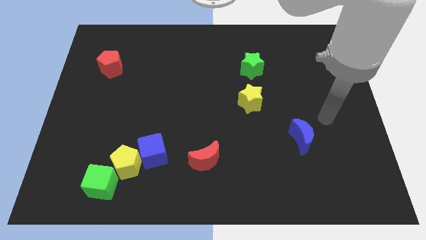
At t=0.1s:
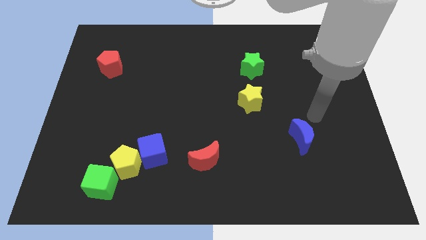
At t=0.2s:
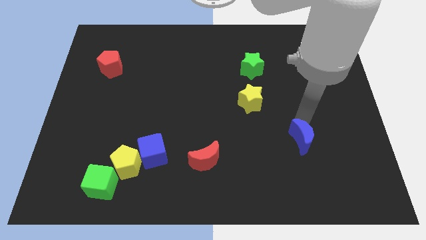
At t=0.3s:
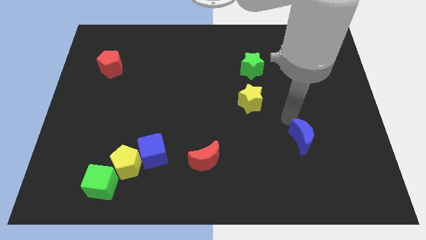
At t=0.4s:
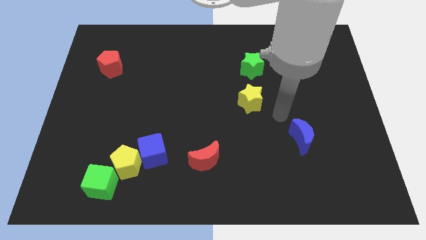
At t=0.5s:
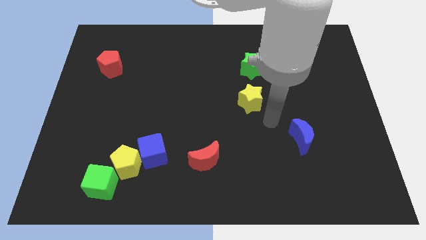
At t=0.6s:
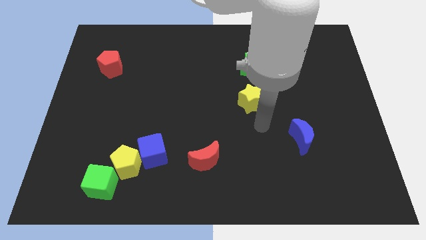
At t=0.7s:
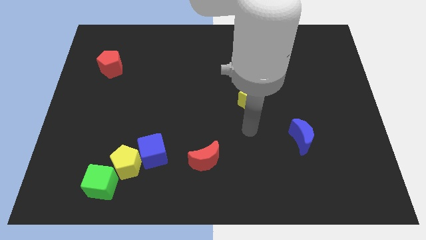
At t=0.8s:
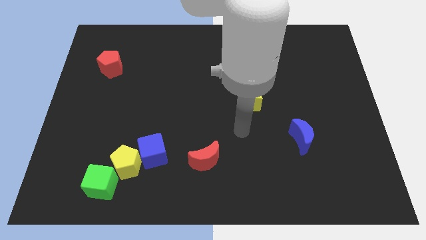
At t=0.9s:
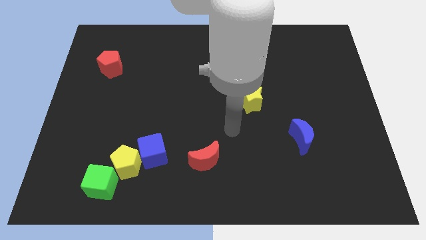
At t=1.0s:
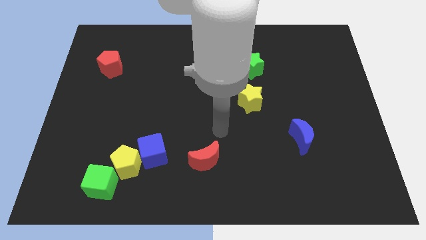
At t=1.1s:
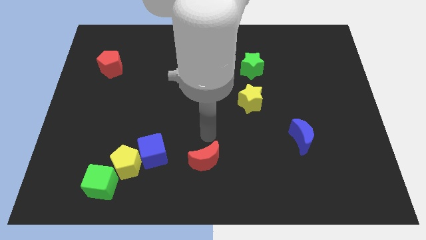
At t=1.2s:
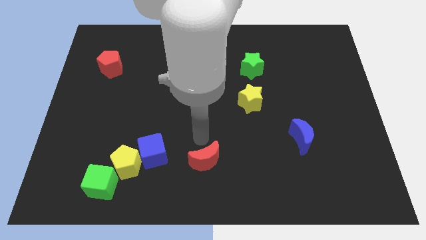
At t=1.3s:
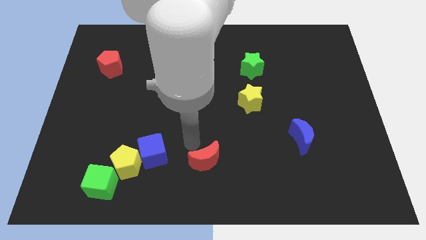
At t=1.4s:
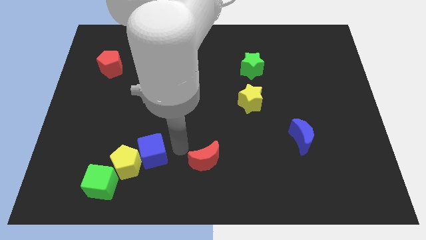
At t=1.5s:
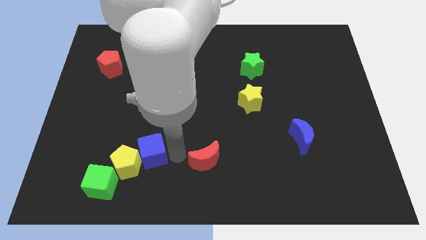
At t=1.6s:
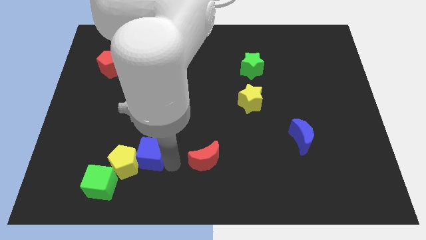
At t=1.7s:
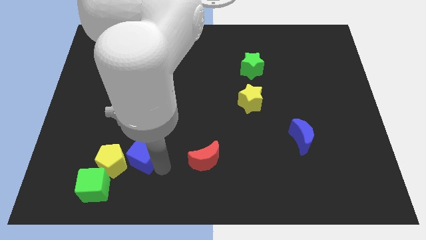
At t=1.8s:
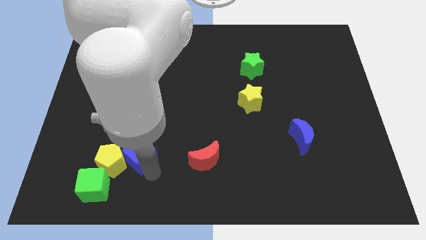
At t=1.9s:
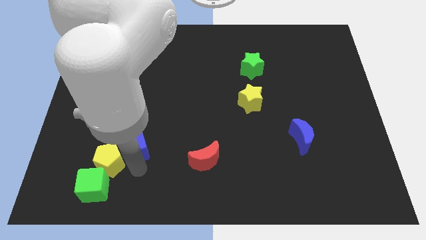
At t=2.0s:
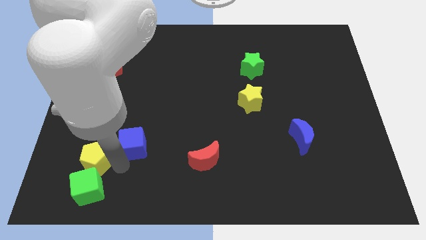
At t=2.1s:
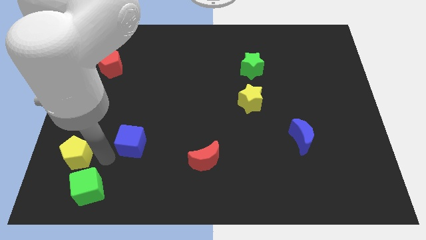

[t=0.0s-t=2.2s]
pull the blue cube apart from the yellow pentagon

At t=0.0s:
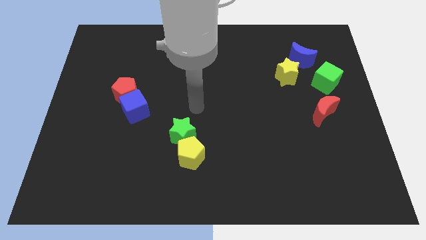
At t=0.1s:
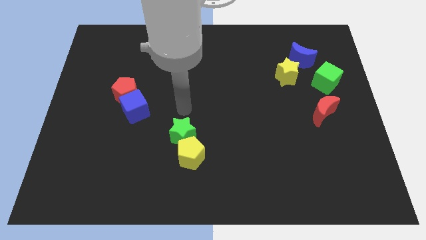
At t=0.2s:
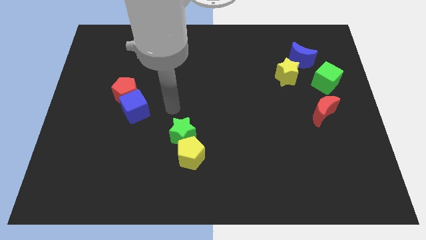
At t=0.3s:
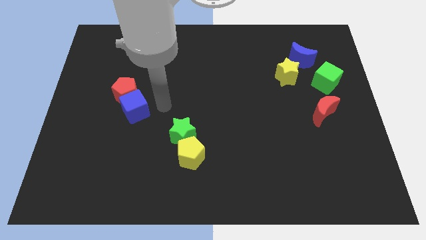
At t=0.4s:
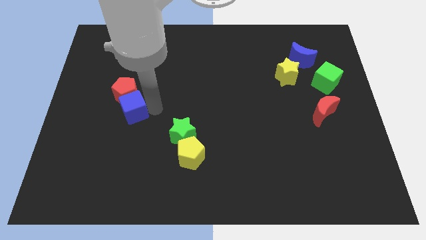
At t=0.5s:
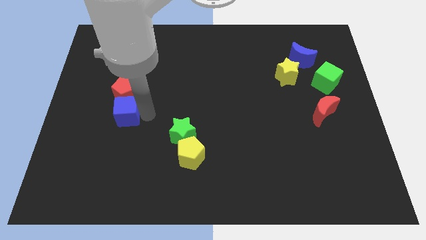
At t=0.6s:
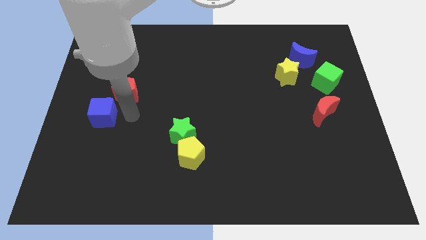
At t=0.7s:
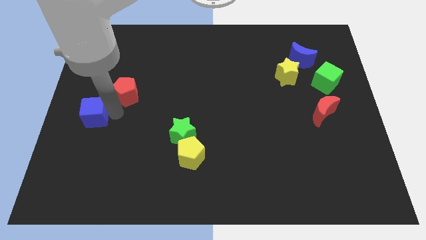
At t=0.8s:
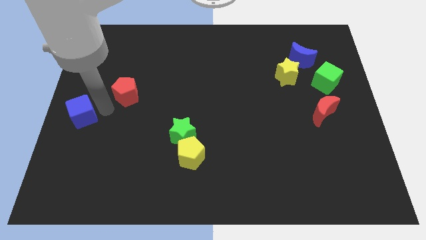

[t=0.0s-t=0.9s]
move the red pentagon away from the blue cube

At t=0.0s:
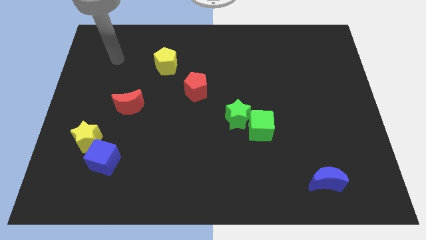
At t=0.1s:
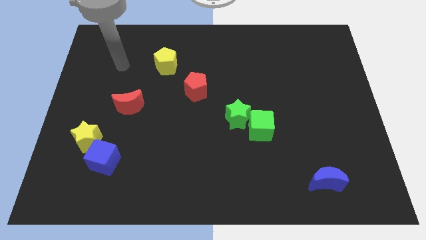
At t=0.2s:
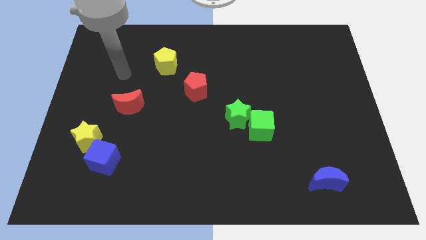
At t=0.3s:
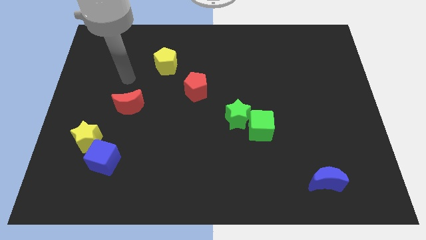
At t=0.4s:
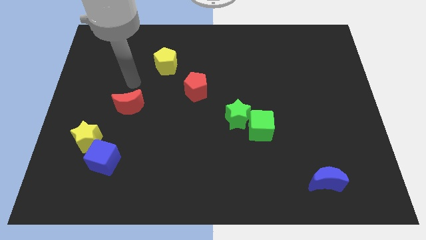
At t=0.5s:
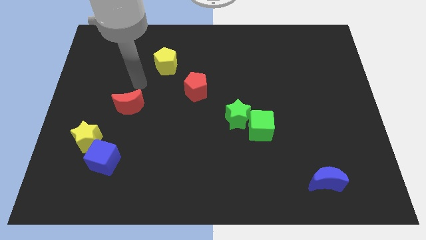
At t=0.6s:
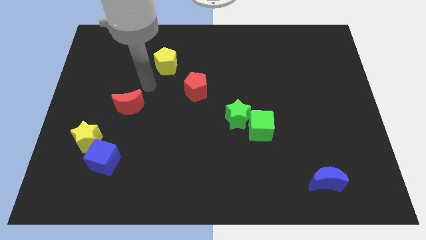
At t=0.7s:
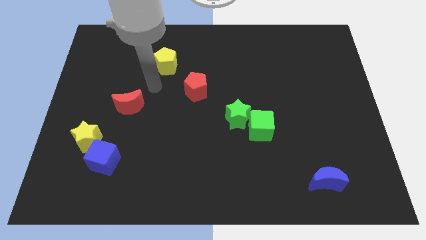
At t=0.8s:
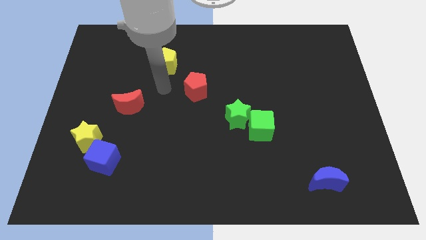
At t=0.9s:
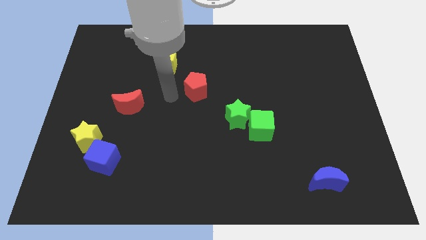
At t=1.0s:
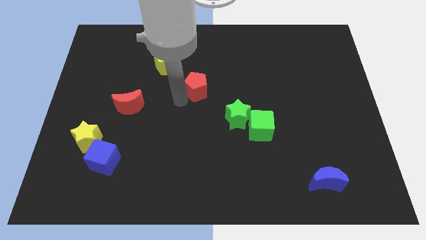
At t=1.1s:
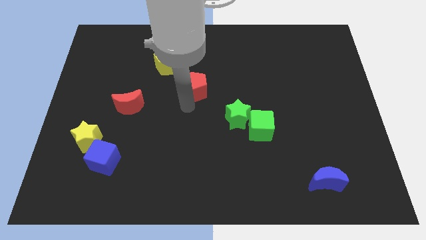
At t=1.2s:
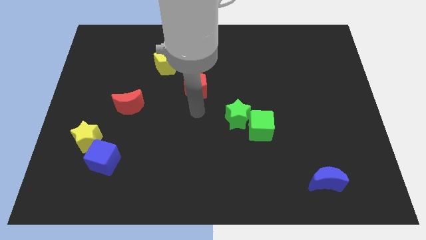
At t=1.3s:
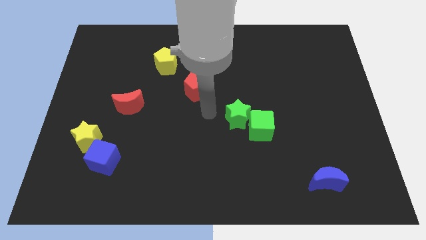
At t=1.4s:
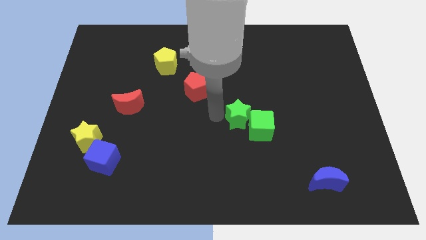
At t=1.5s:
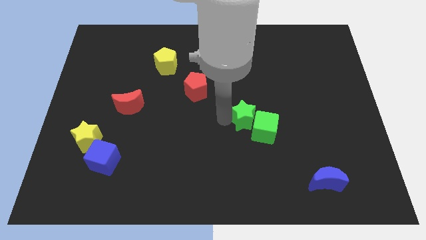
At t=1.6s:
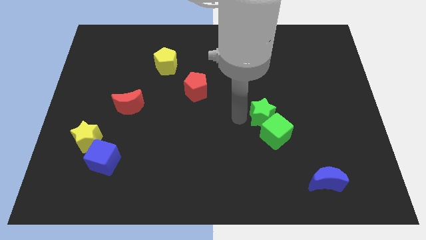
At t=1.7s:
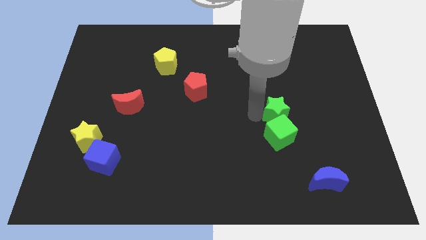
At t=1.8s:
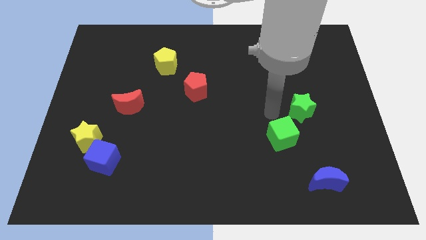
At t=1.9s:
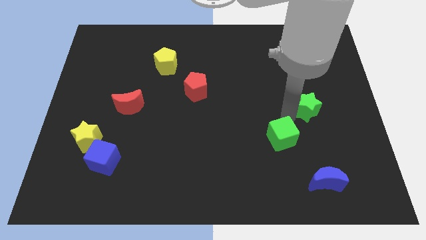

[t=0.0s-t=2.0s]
pull the green cube apart from the green star

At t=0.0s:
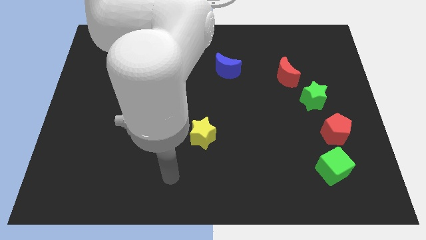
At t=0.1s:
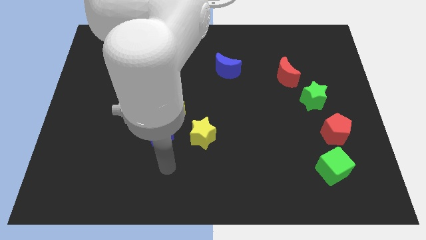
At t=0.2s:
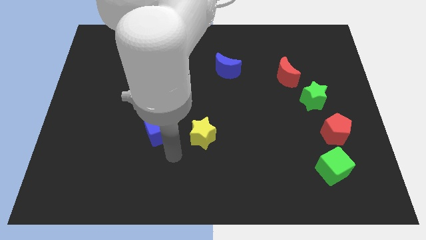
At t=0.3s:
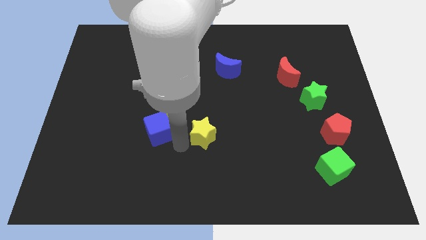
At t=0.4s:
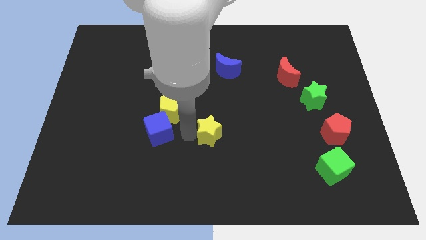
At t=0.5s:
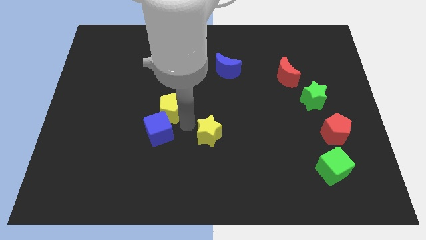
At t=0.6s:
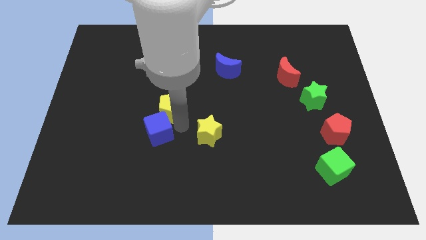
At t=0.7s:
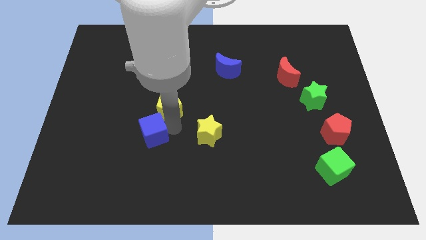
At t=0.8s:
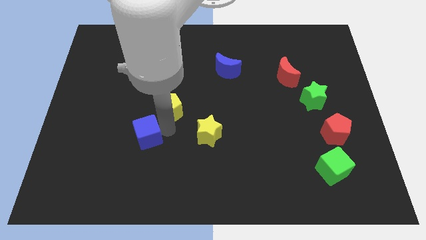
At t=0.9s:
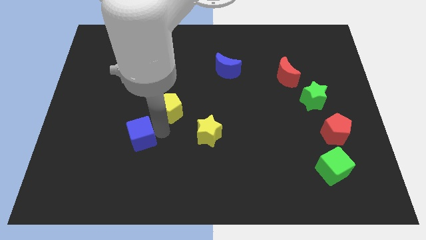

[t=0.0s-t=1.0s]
move the blue cube away from the yellow pentagon and yellow star

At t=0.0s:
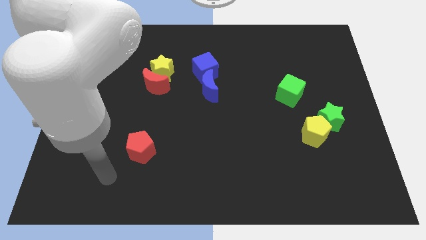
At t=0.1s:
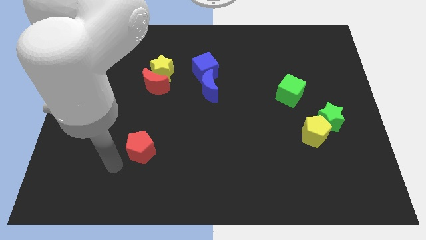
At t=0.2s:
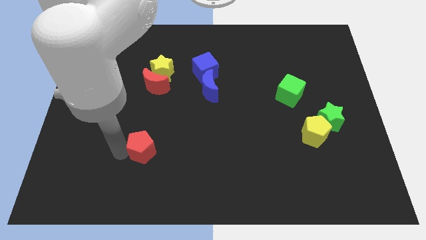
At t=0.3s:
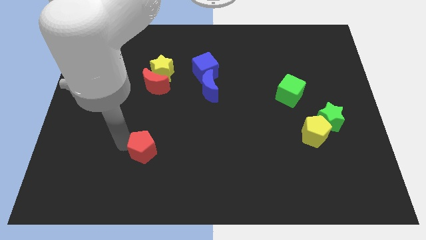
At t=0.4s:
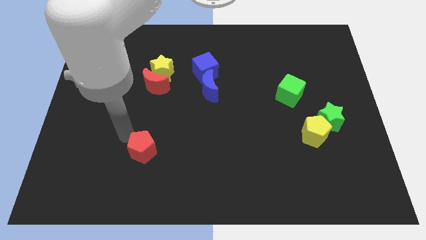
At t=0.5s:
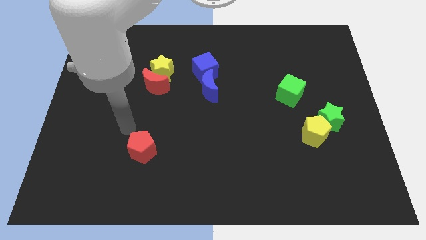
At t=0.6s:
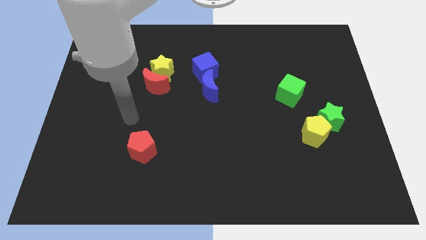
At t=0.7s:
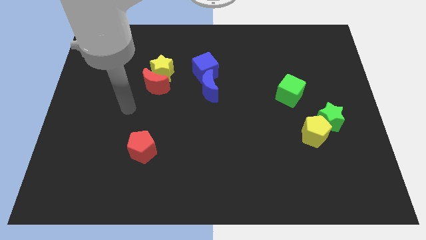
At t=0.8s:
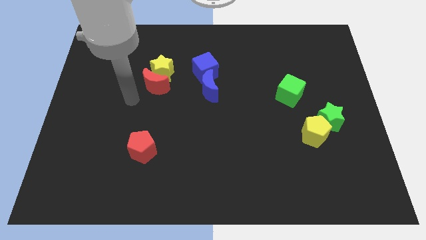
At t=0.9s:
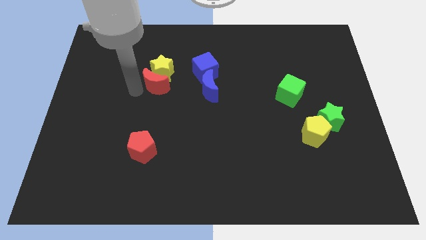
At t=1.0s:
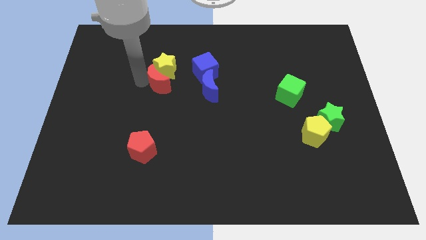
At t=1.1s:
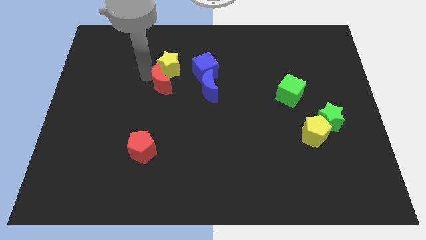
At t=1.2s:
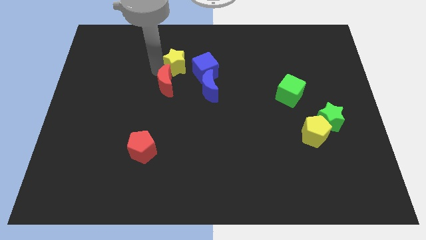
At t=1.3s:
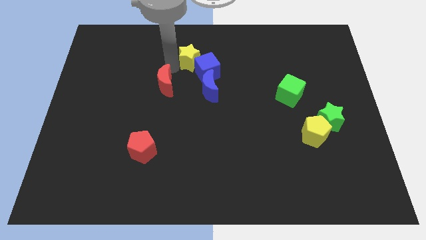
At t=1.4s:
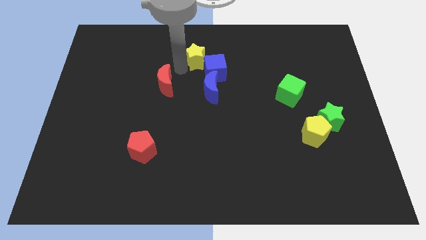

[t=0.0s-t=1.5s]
separate the red moon from the yellow star

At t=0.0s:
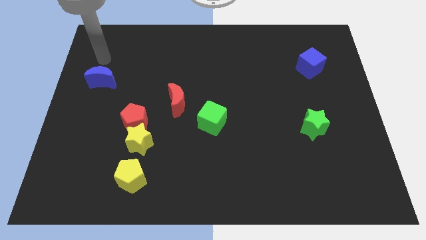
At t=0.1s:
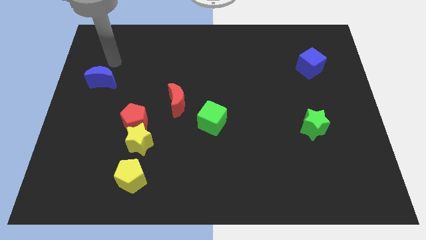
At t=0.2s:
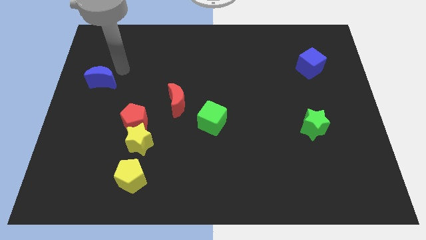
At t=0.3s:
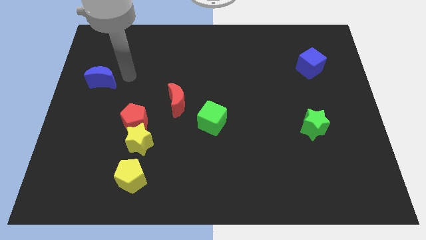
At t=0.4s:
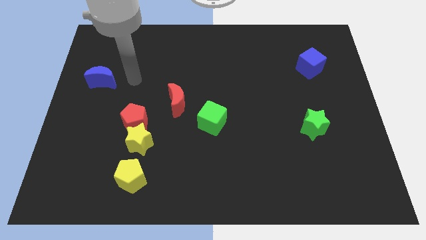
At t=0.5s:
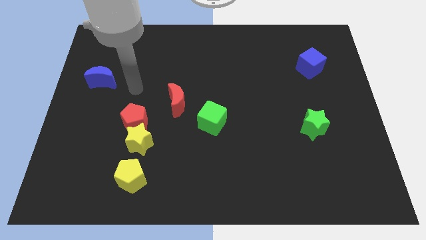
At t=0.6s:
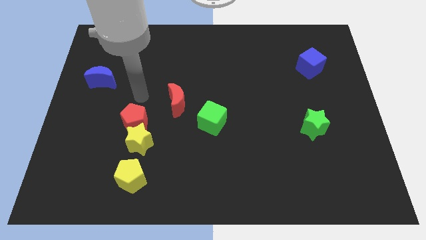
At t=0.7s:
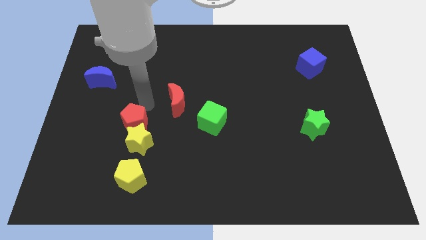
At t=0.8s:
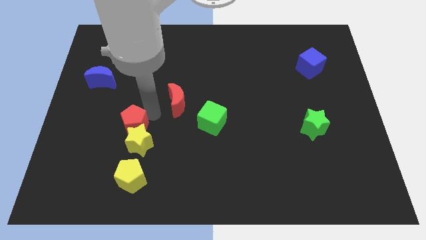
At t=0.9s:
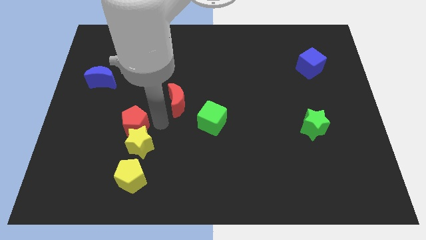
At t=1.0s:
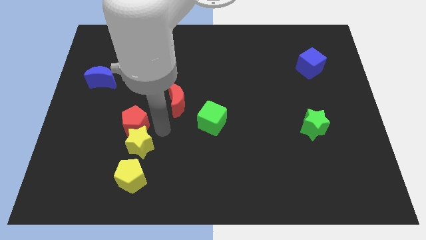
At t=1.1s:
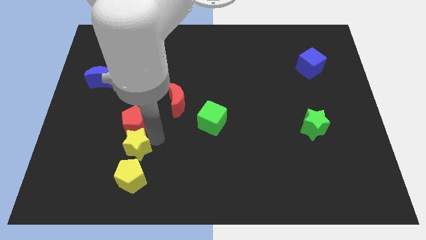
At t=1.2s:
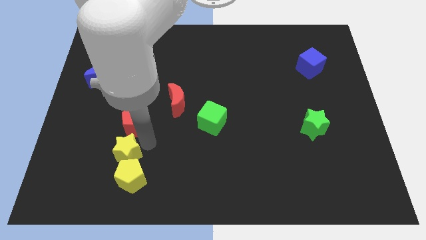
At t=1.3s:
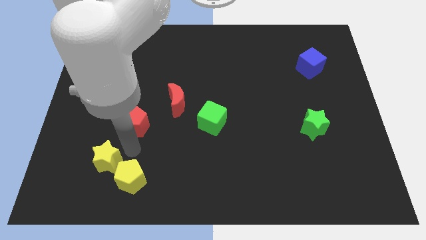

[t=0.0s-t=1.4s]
separate the red pentagon from the yellow star
